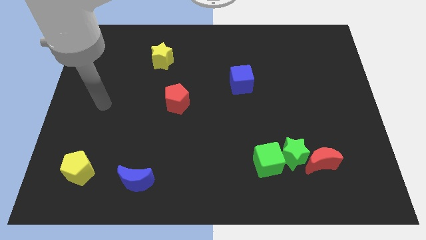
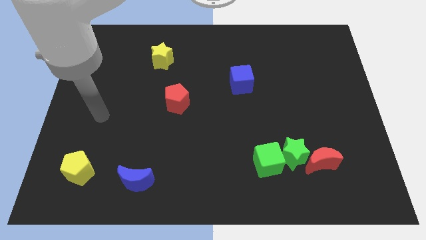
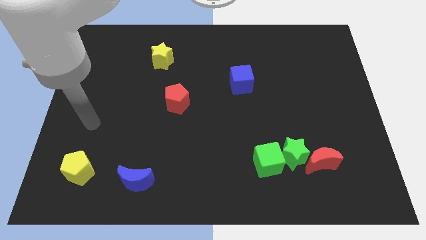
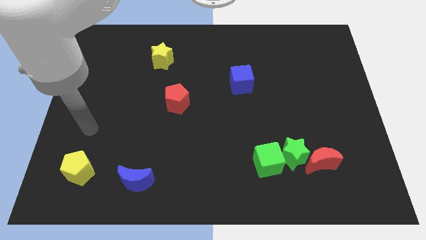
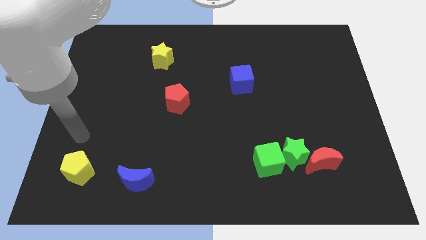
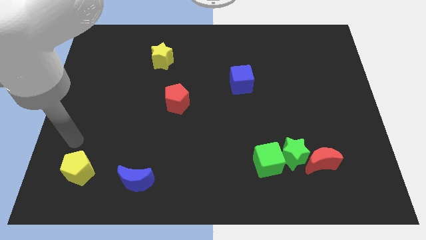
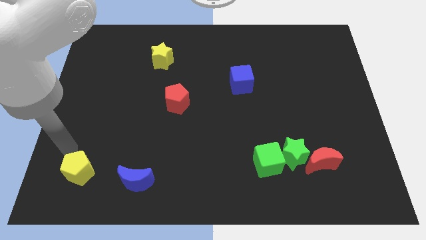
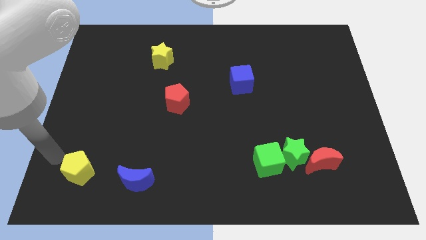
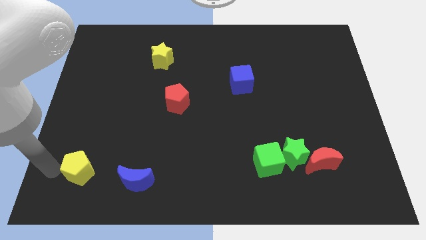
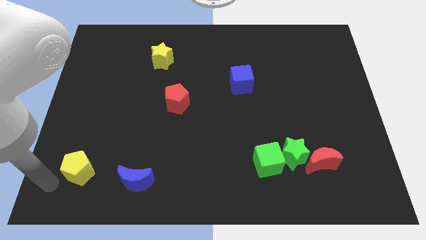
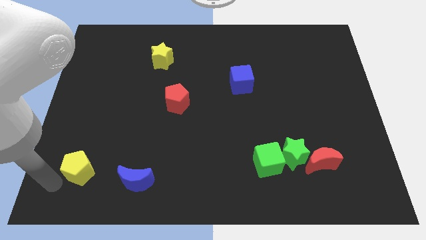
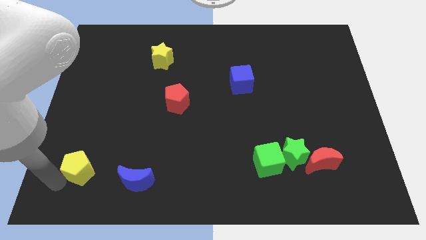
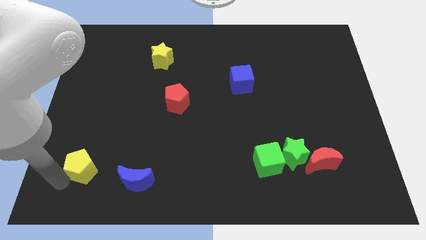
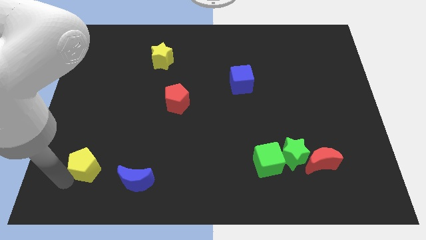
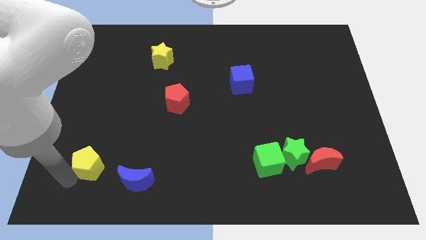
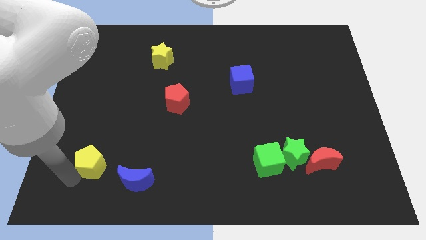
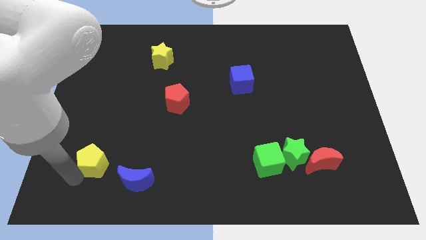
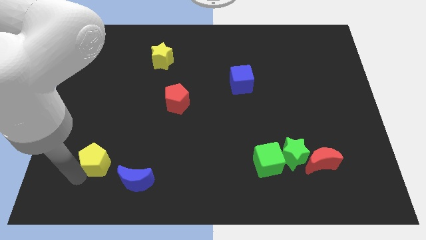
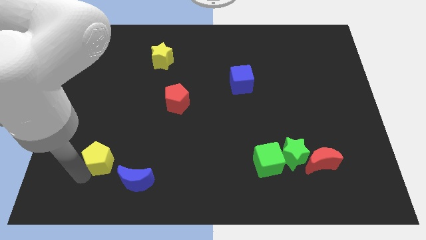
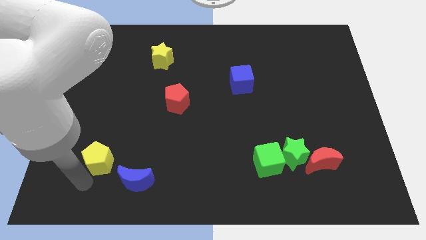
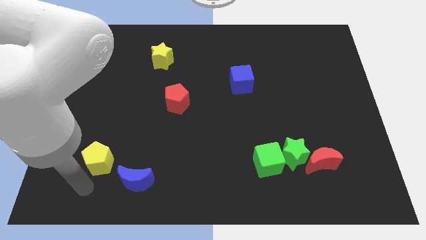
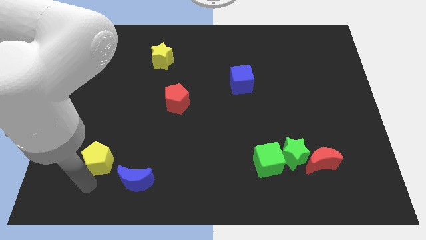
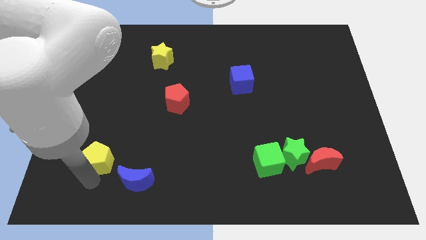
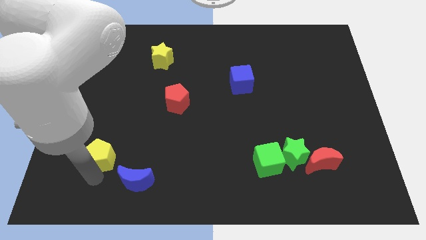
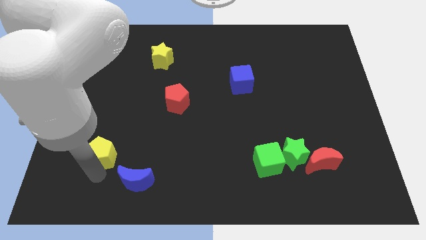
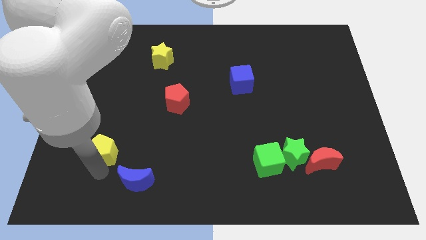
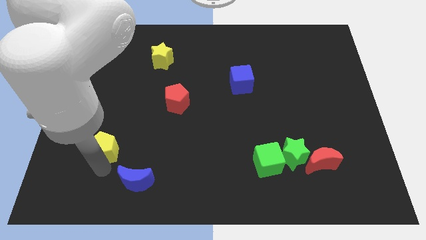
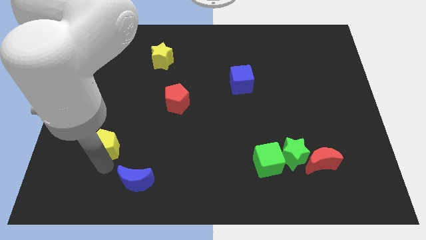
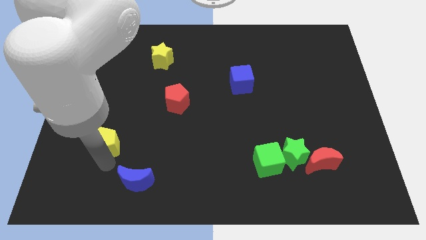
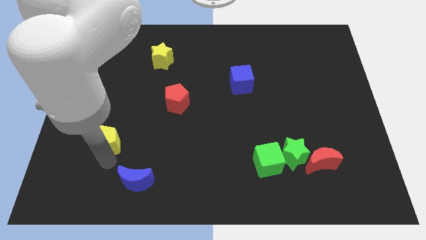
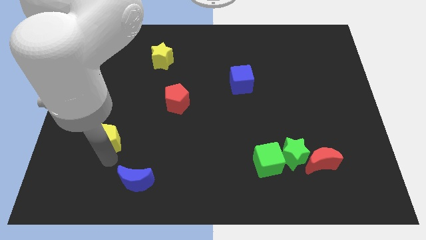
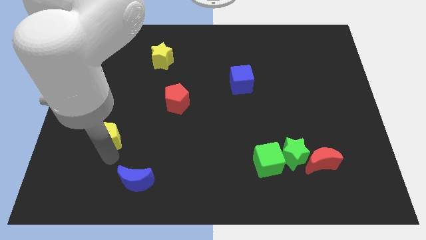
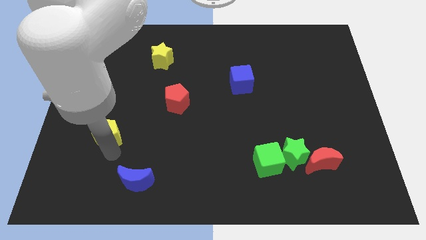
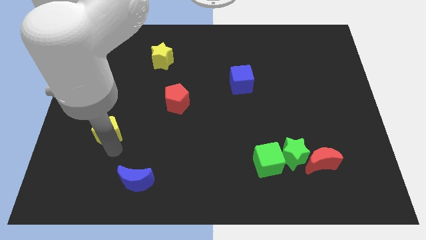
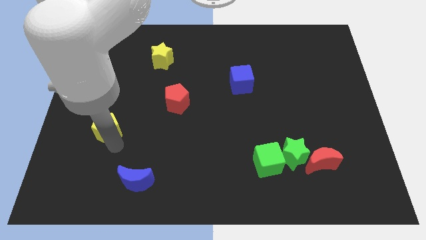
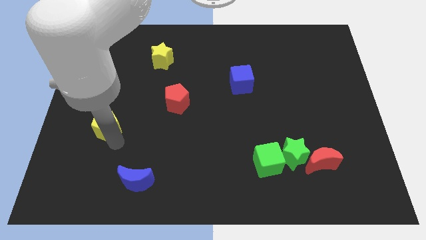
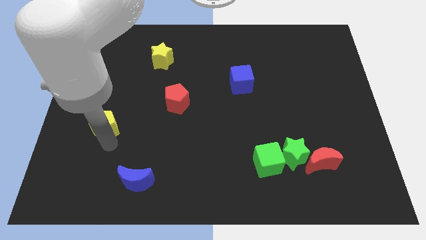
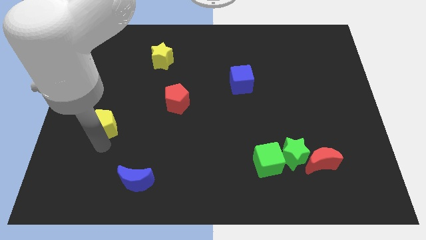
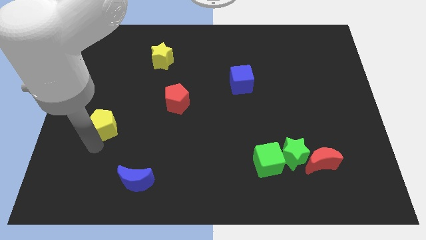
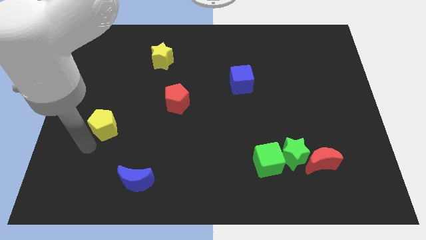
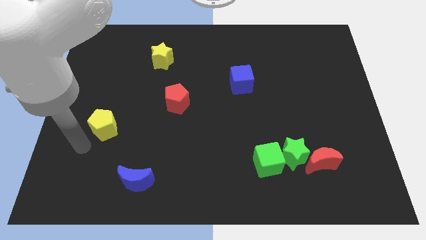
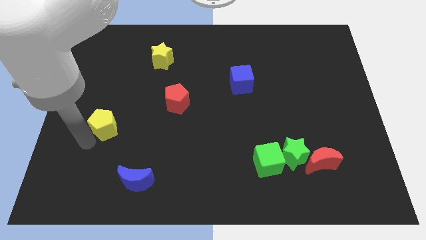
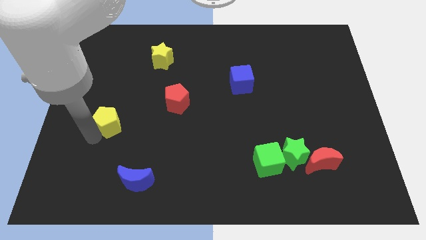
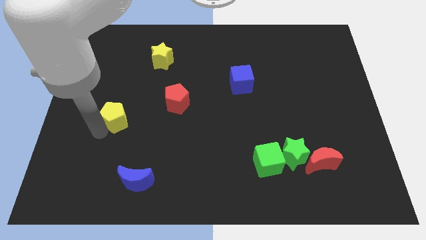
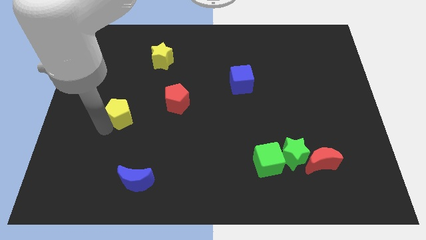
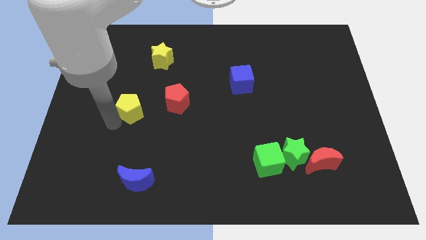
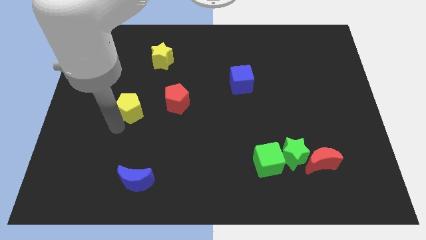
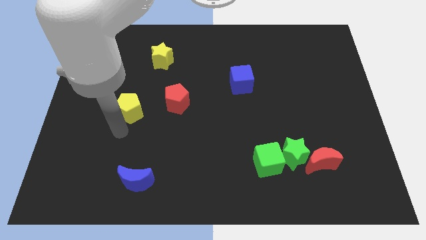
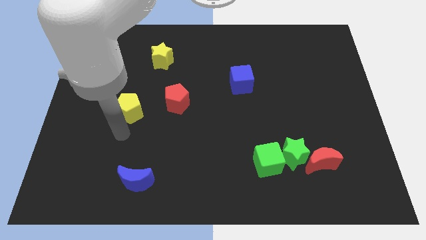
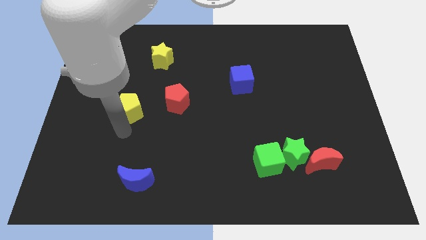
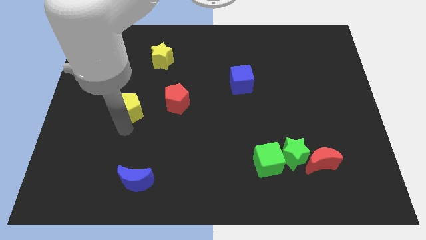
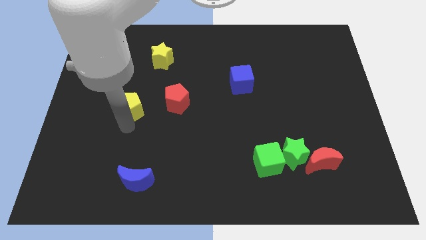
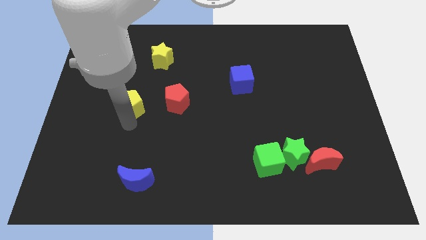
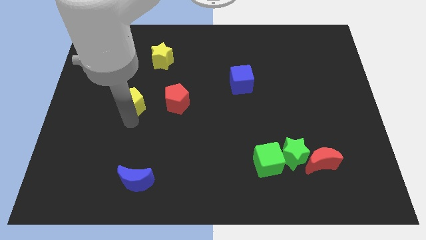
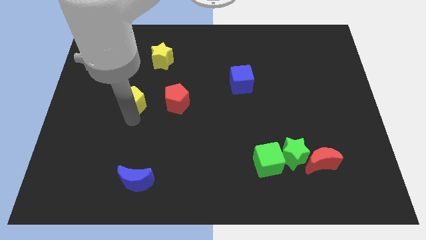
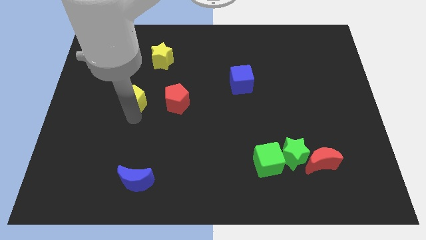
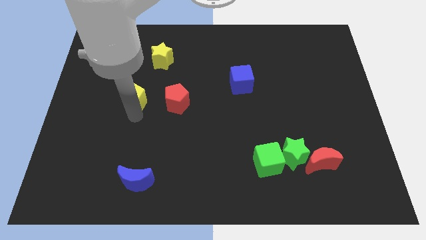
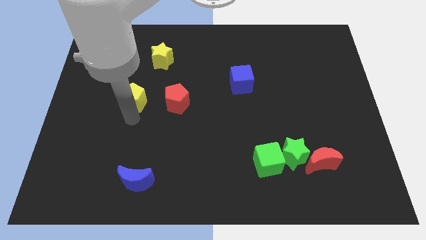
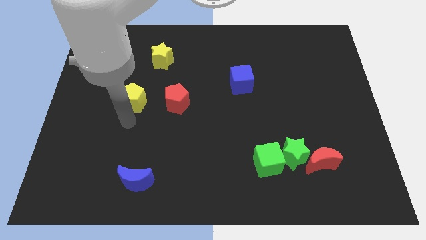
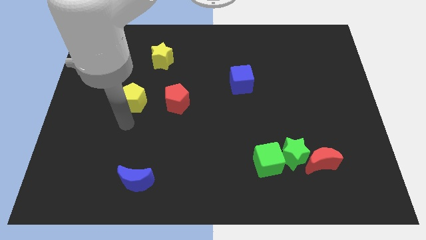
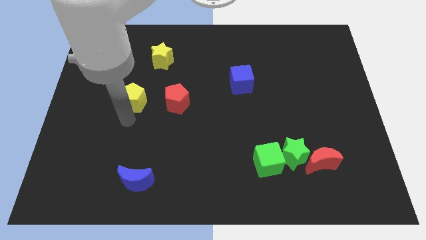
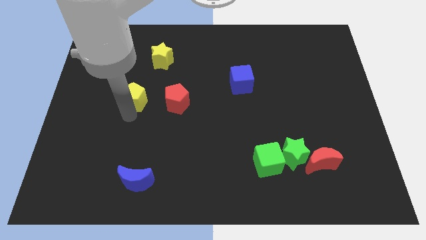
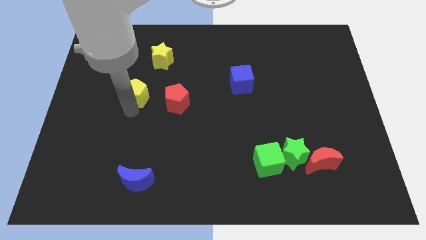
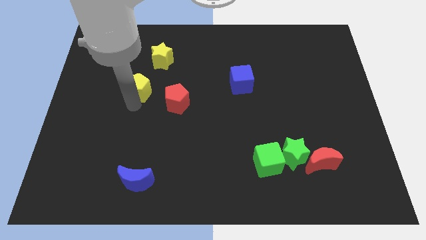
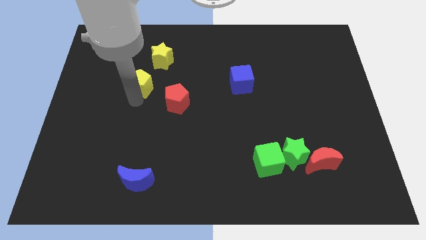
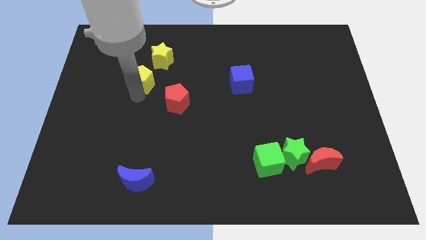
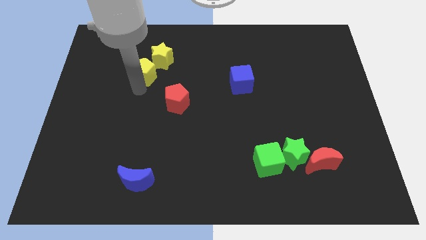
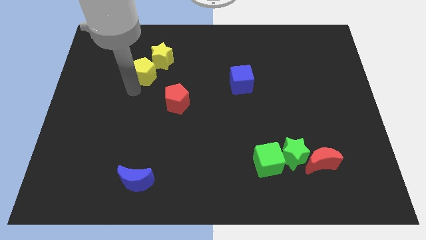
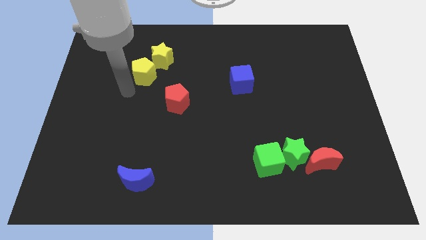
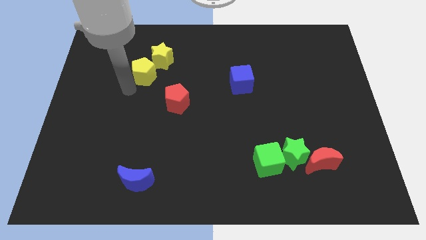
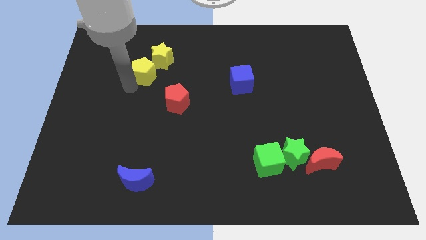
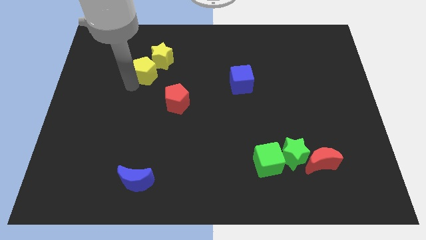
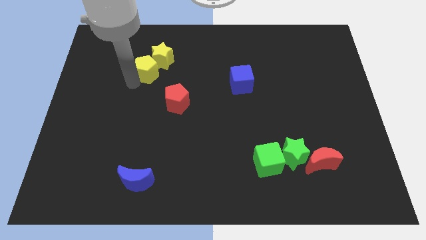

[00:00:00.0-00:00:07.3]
push the yellow pentagon to the yellow star

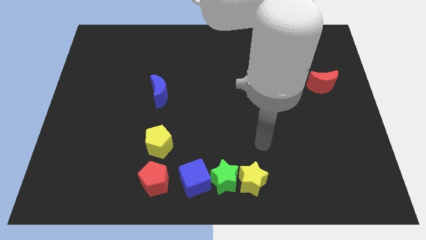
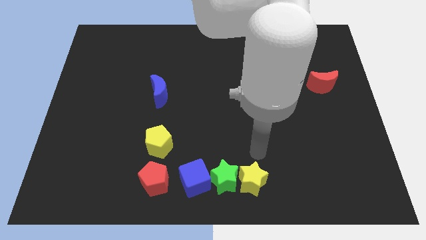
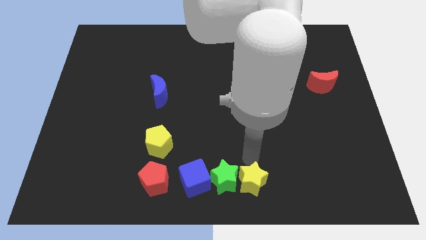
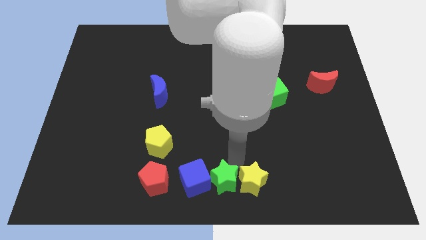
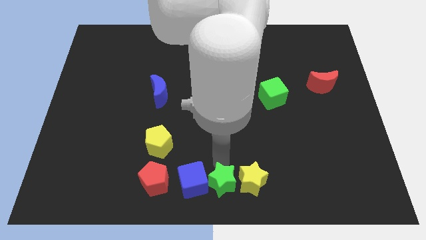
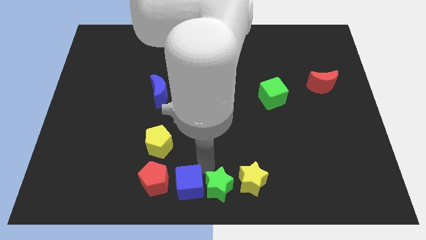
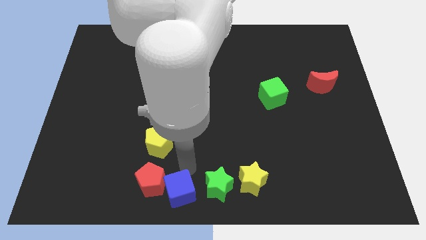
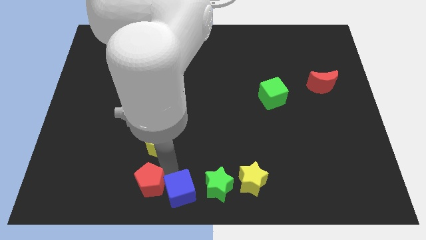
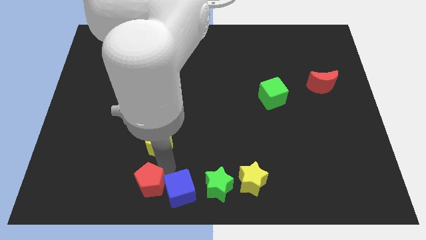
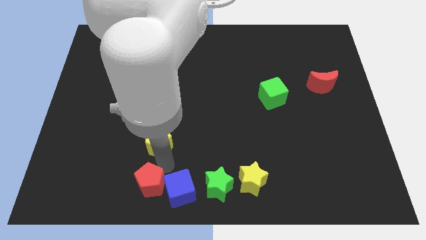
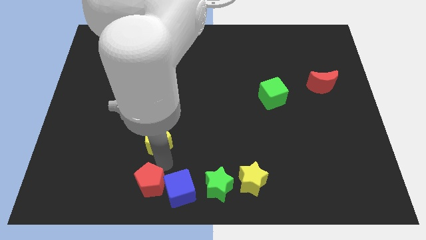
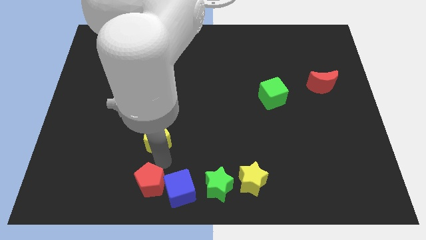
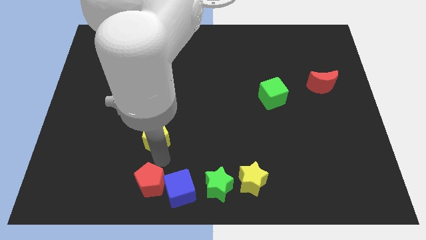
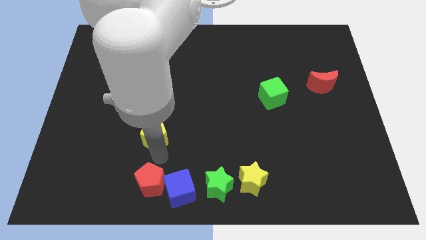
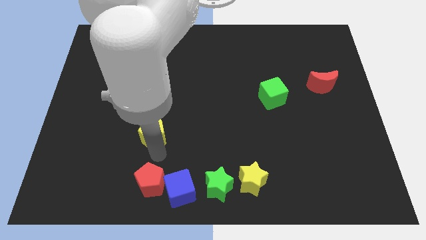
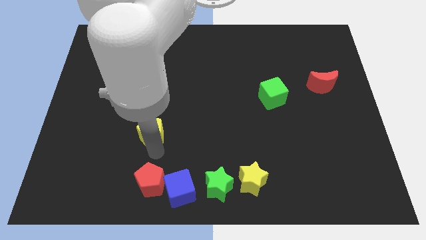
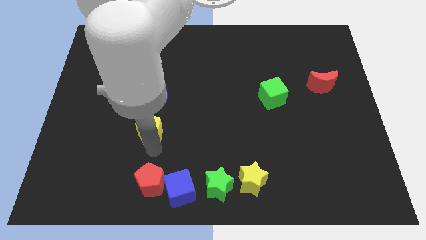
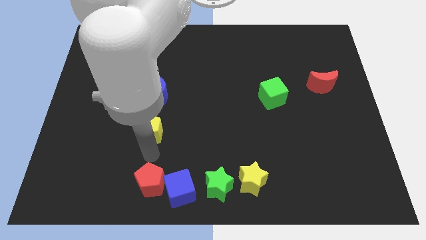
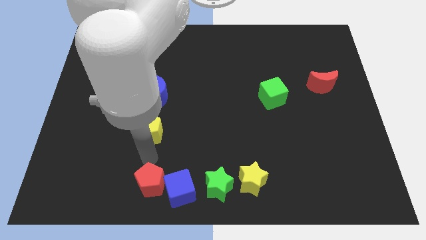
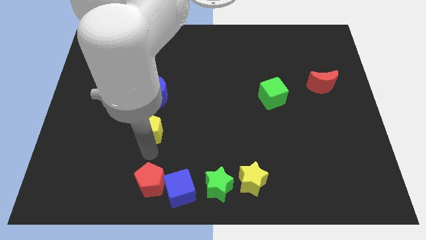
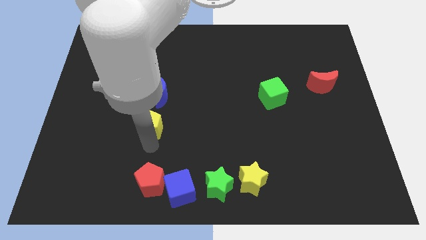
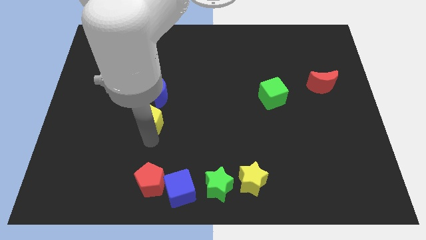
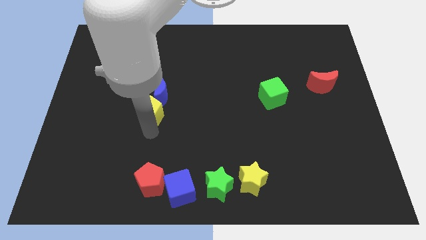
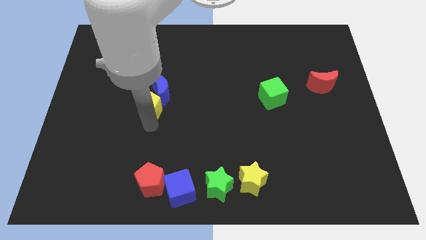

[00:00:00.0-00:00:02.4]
move the yellow pentagon next to the blue moon
